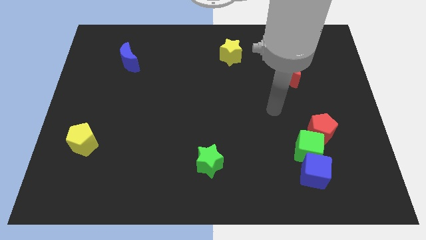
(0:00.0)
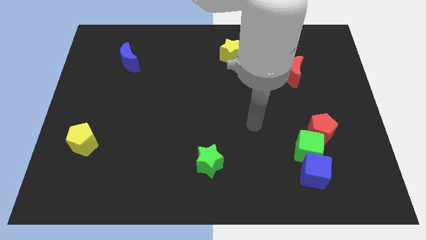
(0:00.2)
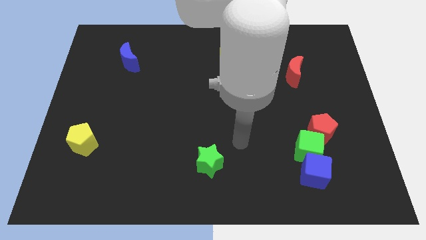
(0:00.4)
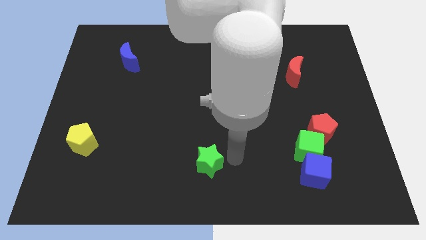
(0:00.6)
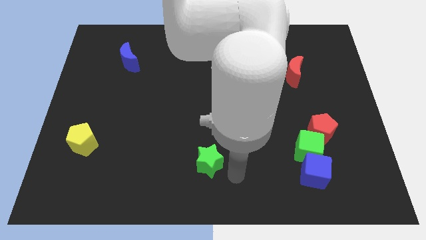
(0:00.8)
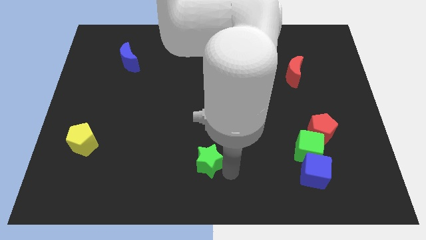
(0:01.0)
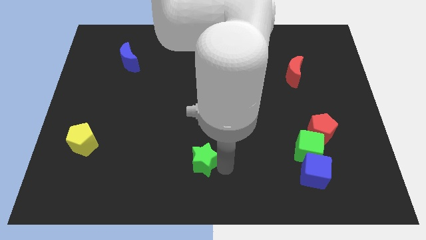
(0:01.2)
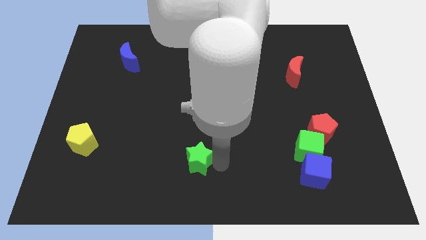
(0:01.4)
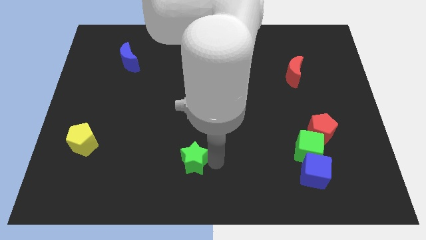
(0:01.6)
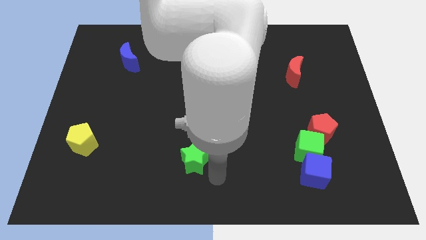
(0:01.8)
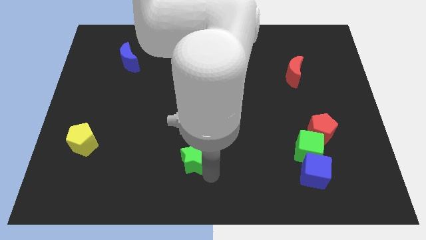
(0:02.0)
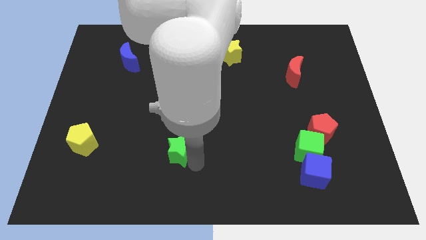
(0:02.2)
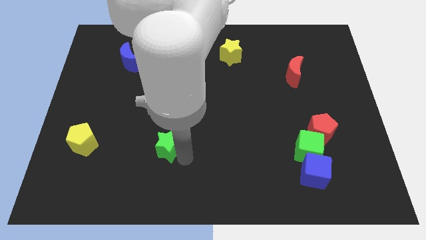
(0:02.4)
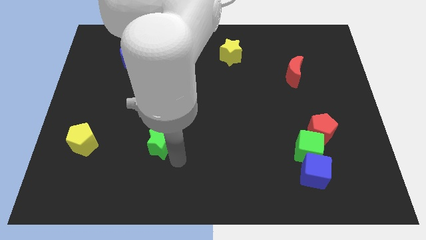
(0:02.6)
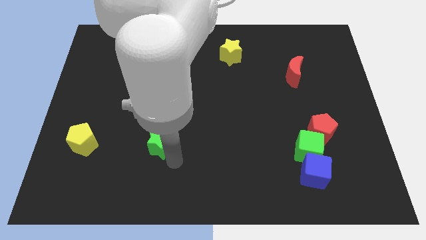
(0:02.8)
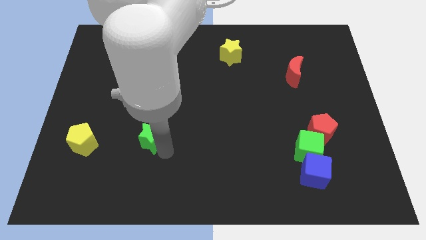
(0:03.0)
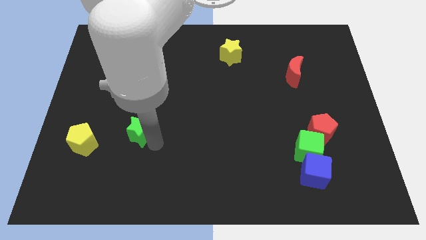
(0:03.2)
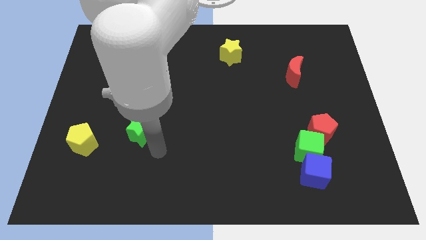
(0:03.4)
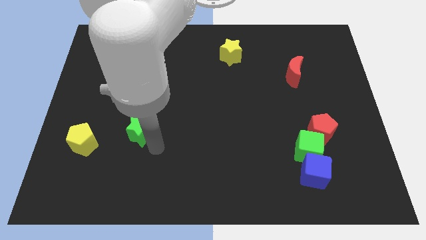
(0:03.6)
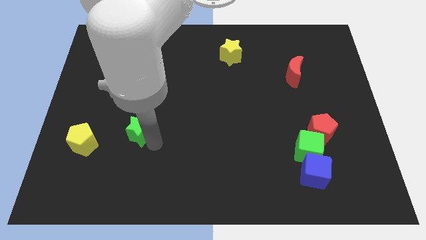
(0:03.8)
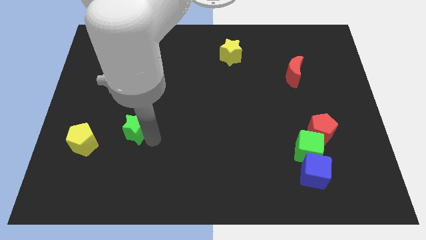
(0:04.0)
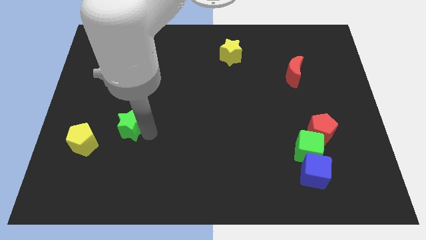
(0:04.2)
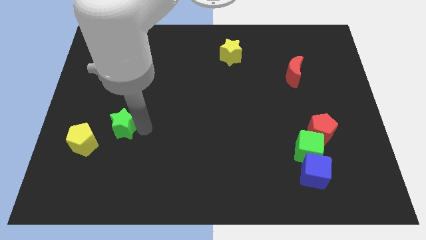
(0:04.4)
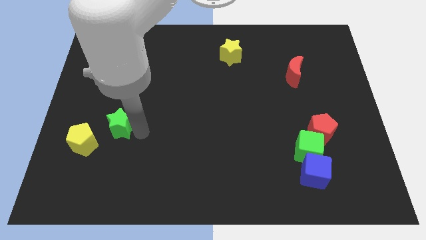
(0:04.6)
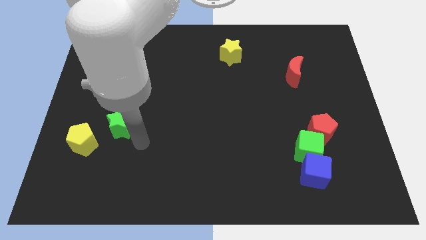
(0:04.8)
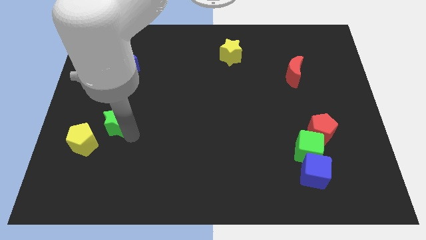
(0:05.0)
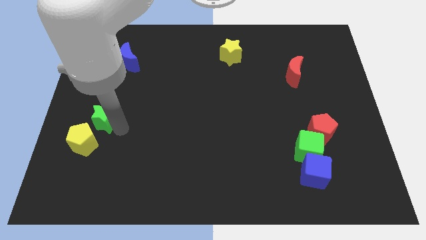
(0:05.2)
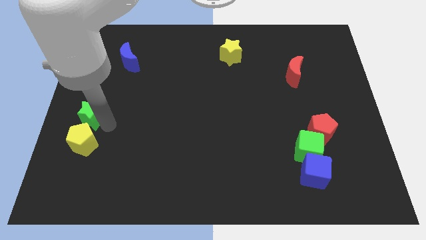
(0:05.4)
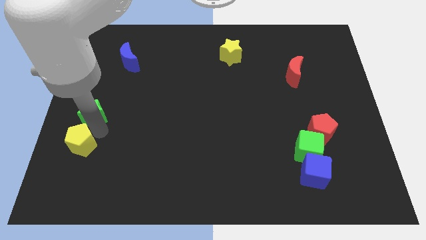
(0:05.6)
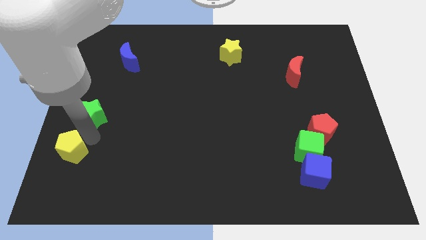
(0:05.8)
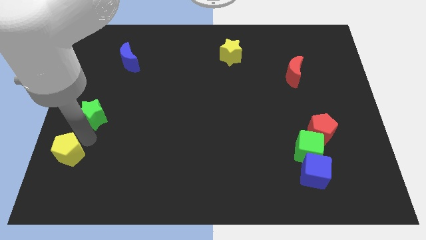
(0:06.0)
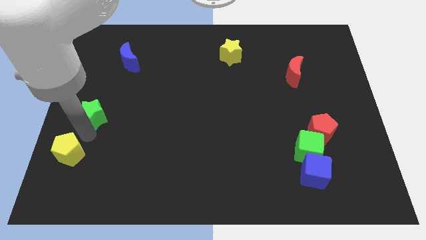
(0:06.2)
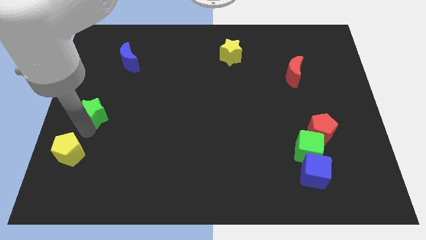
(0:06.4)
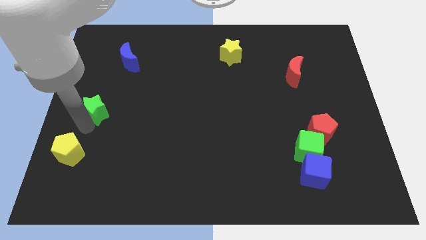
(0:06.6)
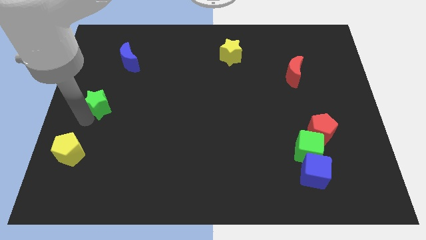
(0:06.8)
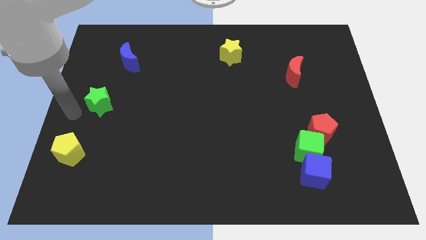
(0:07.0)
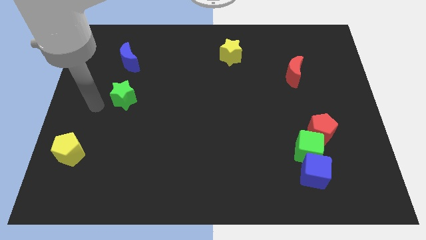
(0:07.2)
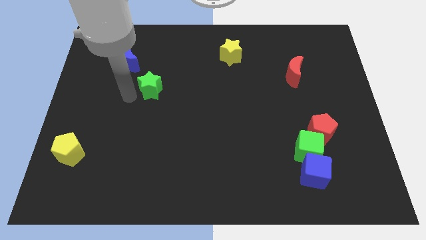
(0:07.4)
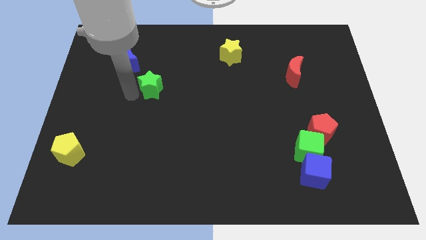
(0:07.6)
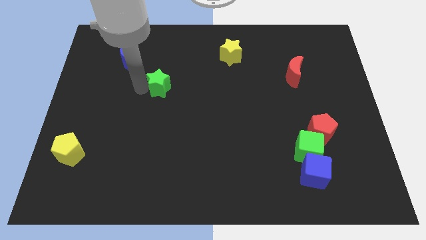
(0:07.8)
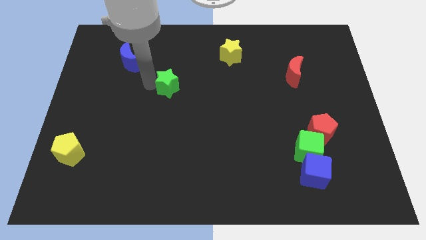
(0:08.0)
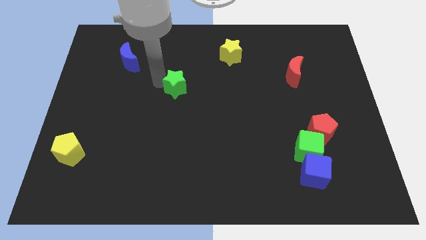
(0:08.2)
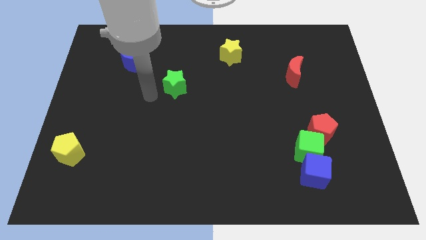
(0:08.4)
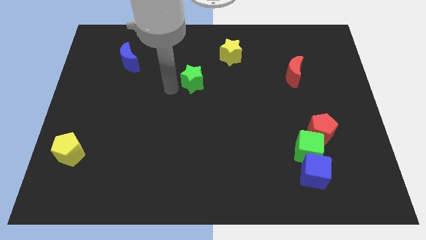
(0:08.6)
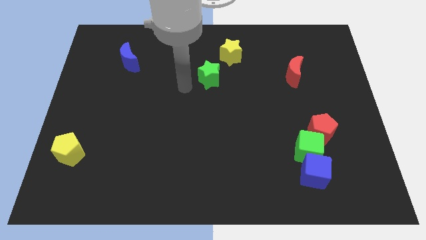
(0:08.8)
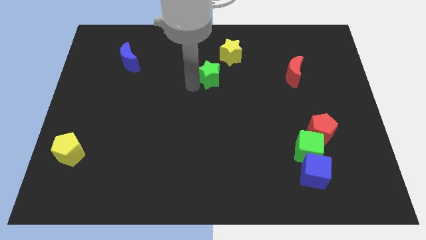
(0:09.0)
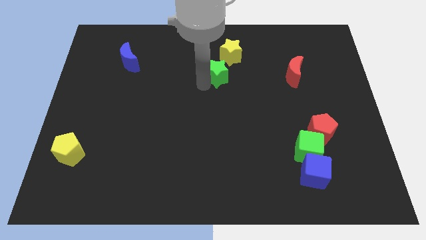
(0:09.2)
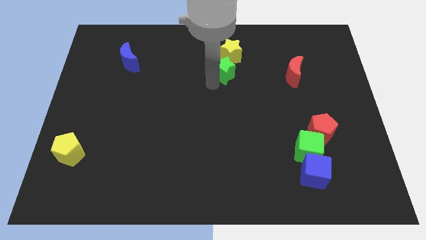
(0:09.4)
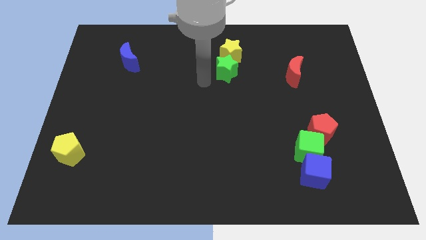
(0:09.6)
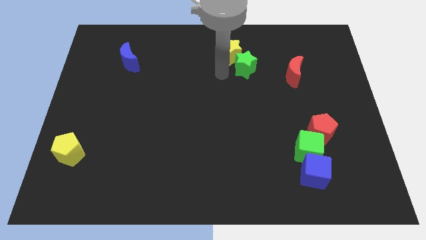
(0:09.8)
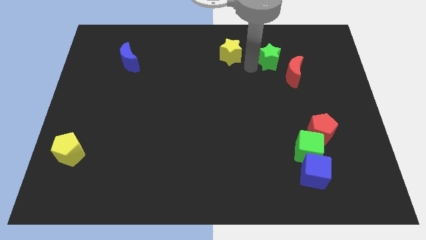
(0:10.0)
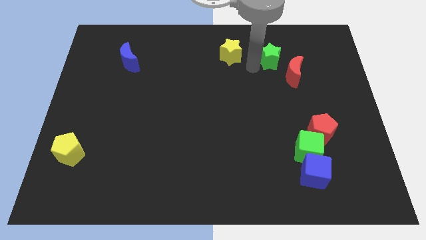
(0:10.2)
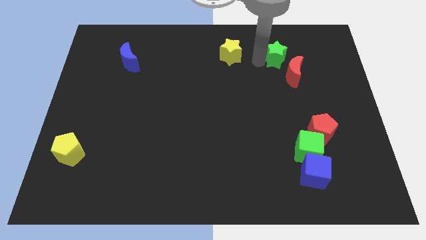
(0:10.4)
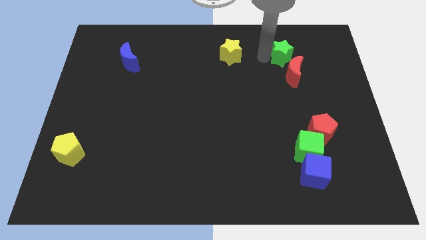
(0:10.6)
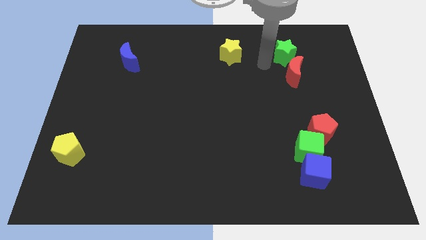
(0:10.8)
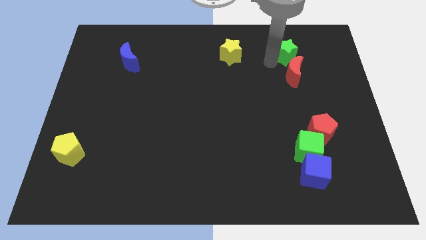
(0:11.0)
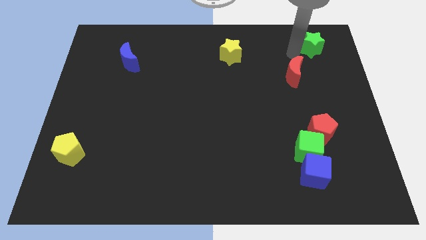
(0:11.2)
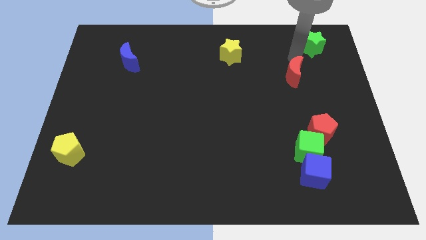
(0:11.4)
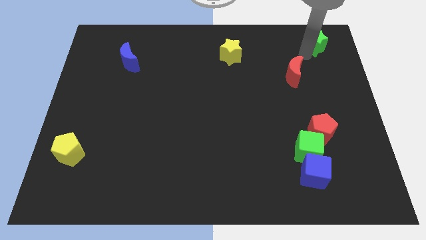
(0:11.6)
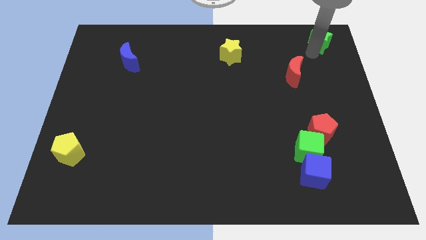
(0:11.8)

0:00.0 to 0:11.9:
slide the green star to the top right corner

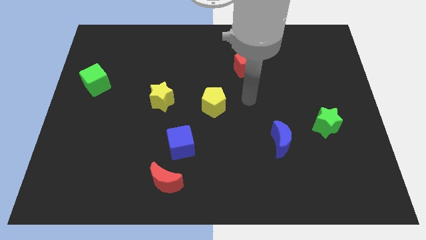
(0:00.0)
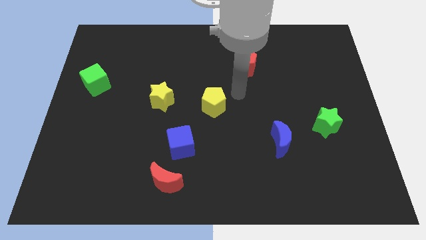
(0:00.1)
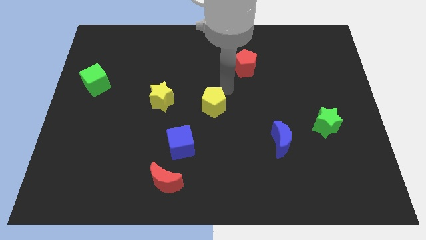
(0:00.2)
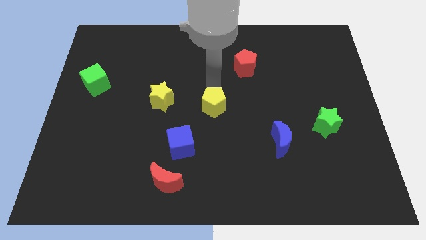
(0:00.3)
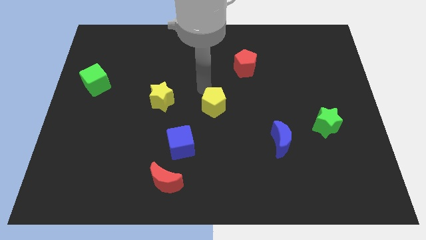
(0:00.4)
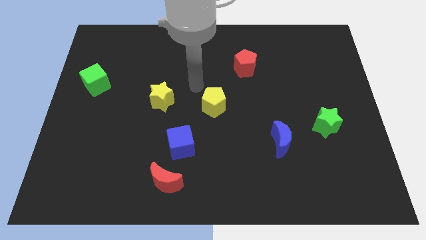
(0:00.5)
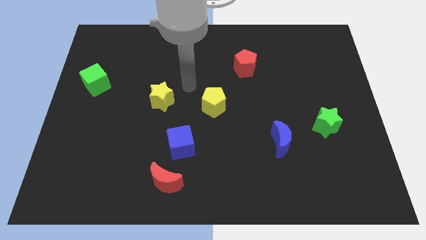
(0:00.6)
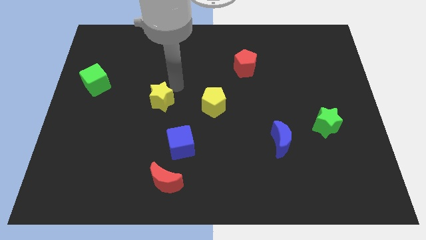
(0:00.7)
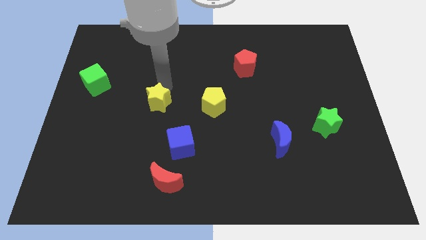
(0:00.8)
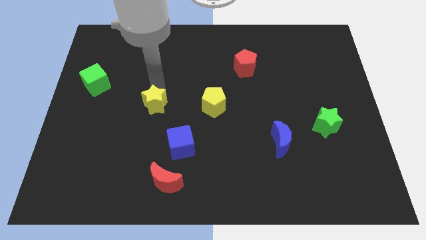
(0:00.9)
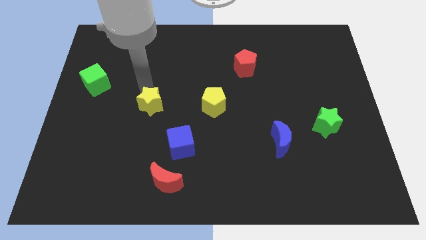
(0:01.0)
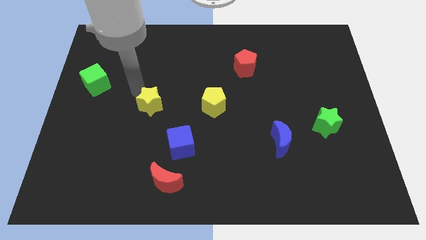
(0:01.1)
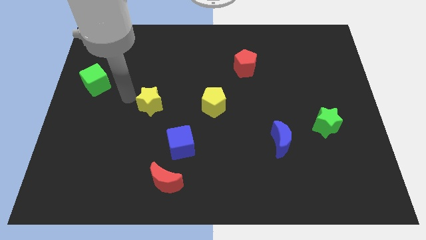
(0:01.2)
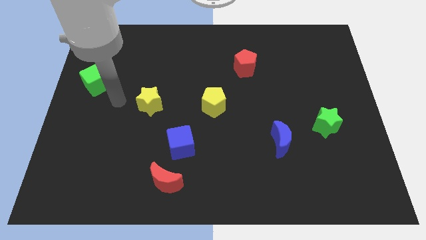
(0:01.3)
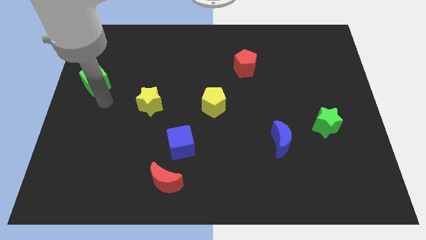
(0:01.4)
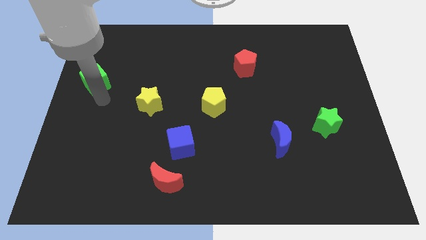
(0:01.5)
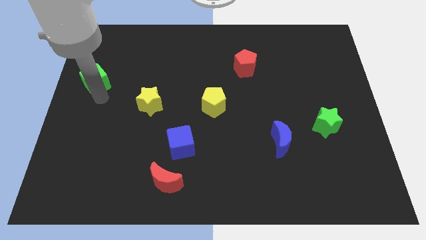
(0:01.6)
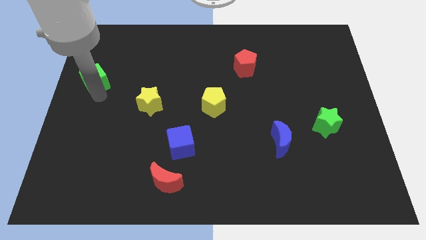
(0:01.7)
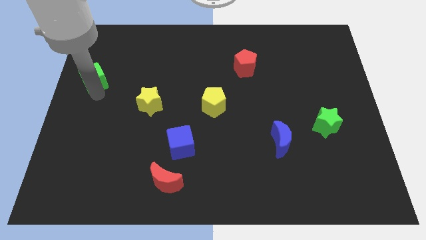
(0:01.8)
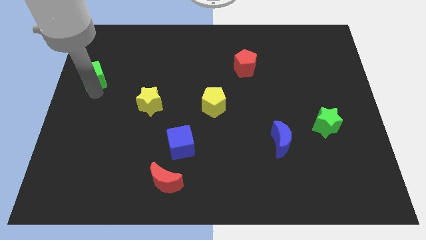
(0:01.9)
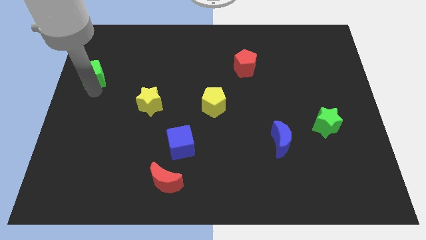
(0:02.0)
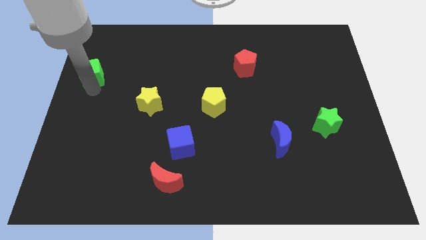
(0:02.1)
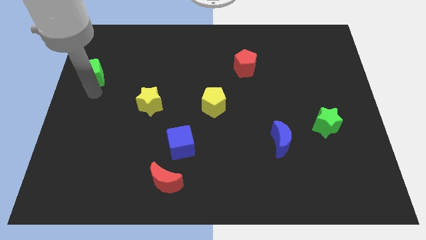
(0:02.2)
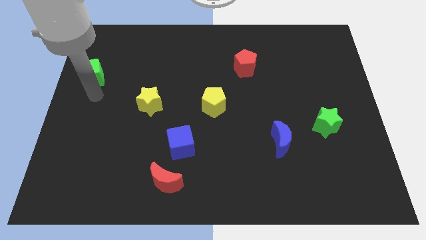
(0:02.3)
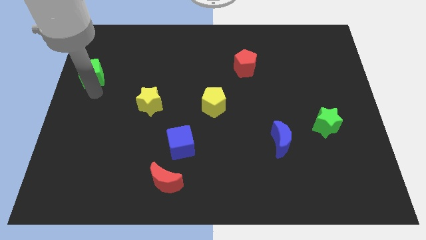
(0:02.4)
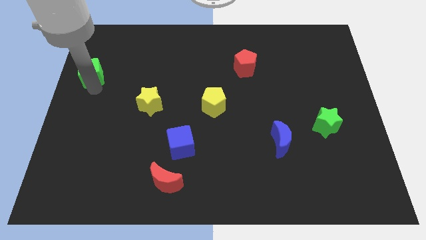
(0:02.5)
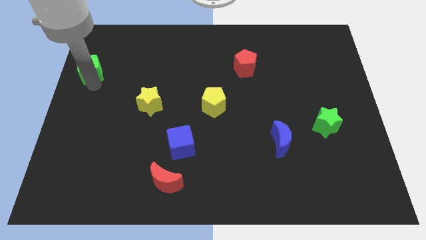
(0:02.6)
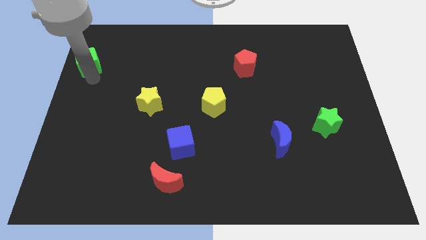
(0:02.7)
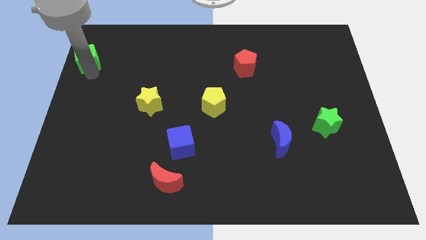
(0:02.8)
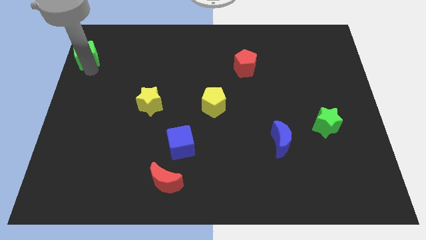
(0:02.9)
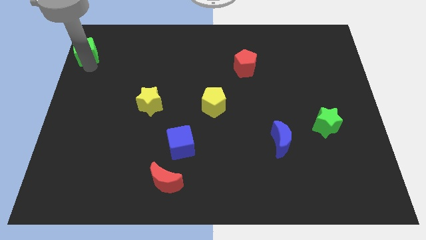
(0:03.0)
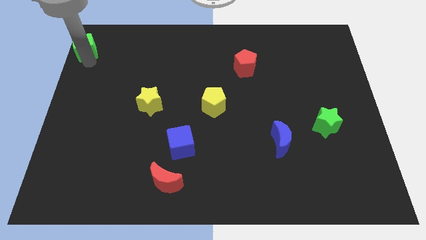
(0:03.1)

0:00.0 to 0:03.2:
put the green cube to the top left of the board
